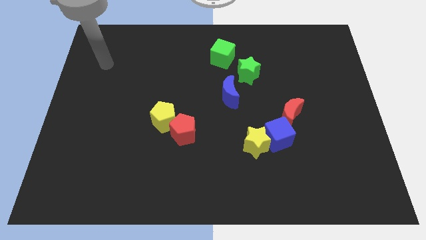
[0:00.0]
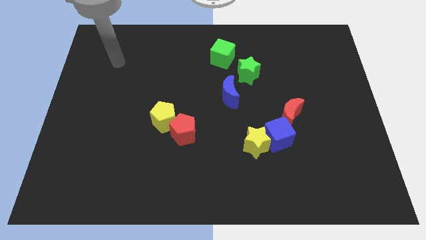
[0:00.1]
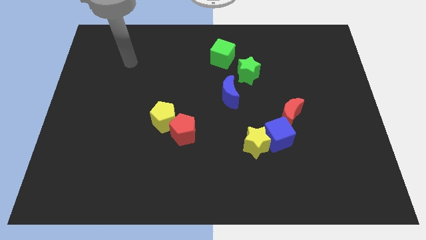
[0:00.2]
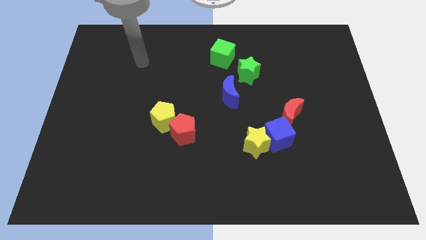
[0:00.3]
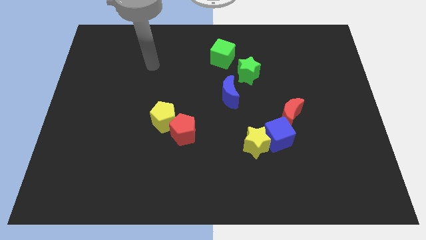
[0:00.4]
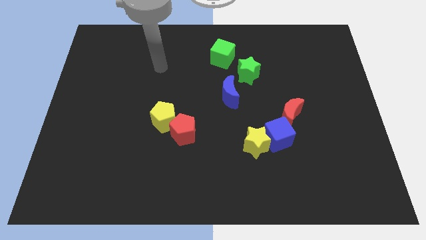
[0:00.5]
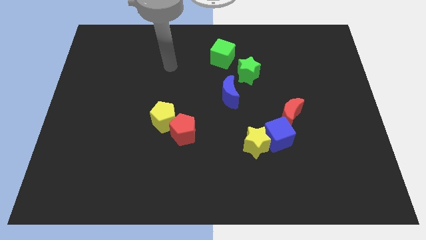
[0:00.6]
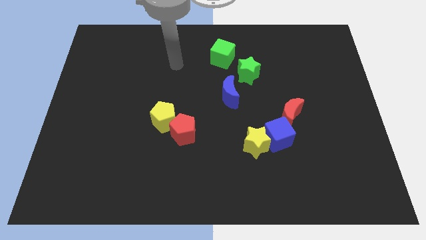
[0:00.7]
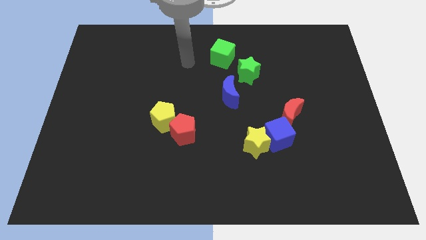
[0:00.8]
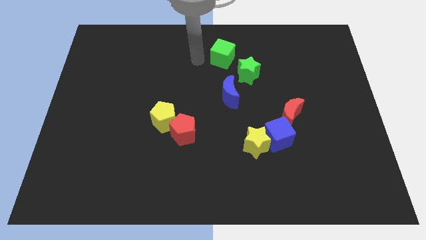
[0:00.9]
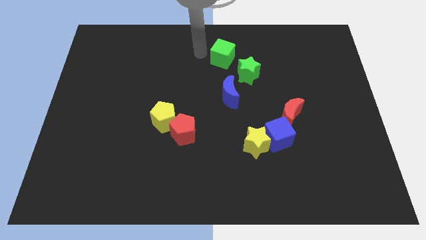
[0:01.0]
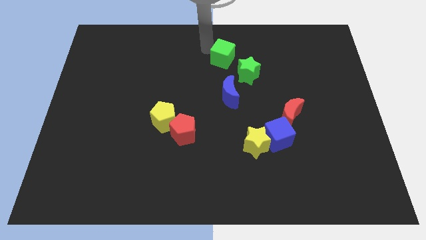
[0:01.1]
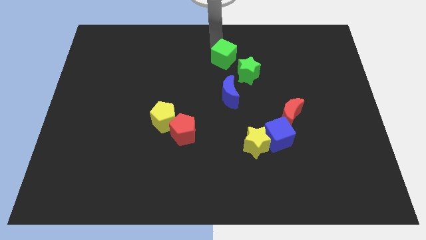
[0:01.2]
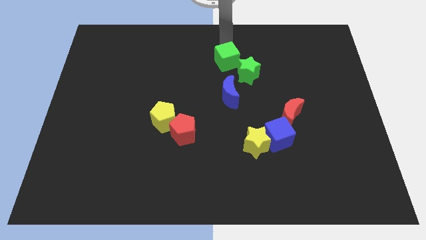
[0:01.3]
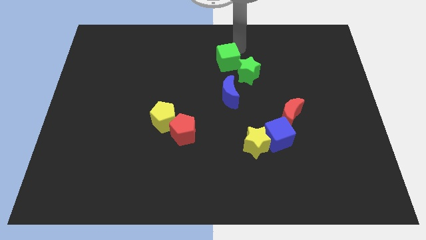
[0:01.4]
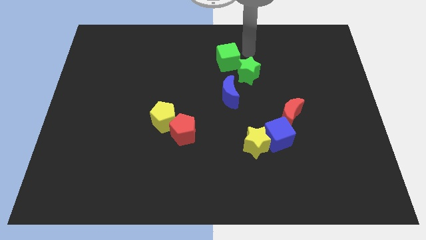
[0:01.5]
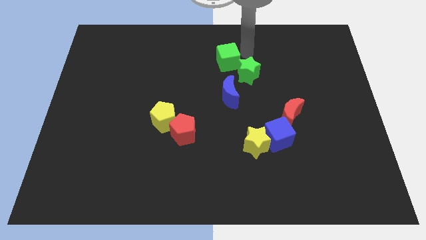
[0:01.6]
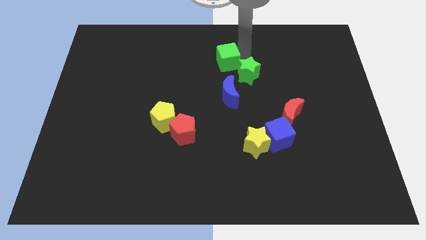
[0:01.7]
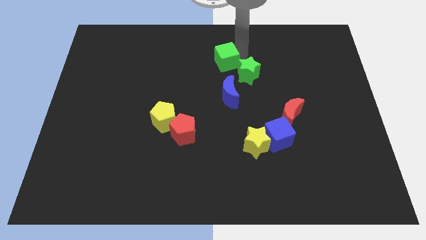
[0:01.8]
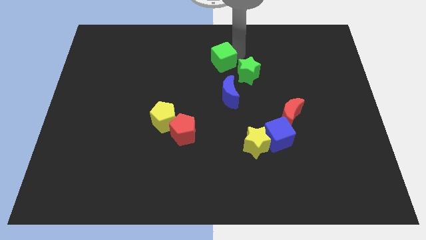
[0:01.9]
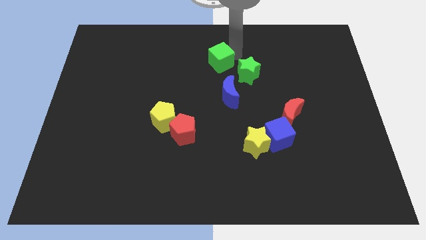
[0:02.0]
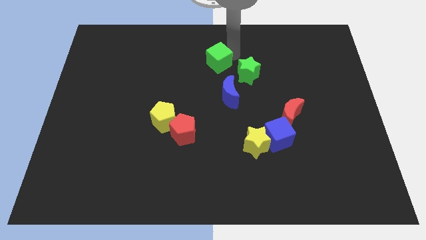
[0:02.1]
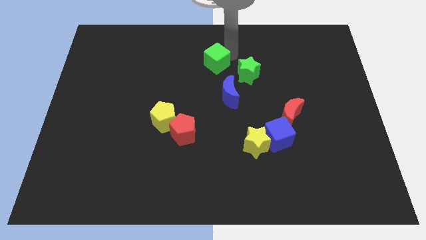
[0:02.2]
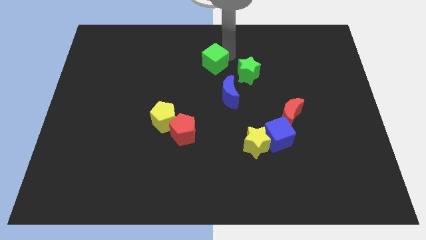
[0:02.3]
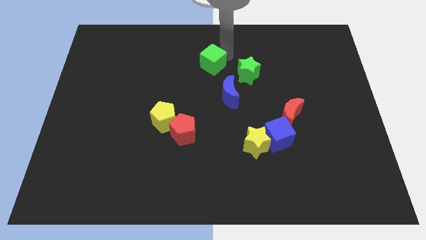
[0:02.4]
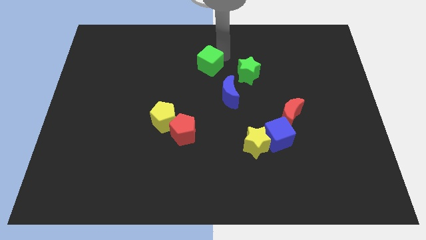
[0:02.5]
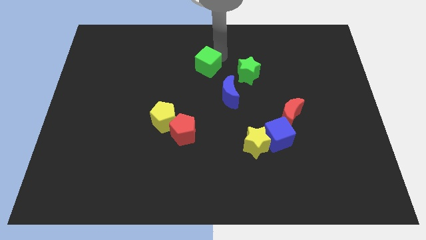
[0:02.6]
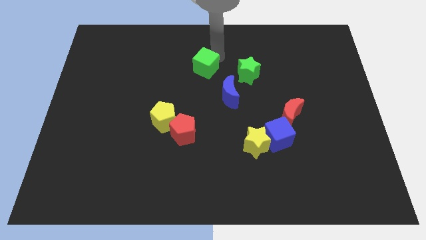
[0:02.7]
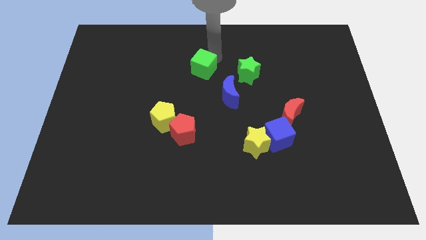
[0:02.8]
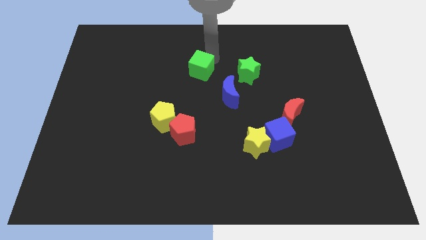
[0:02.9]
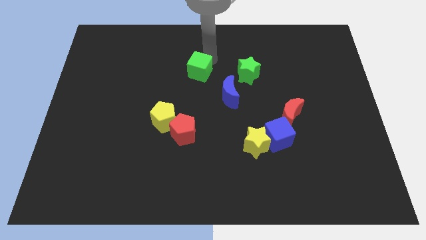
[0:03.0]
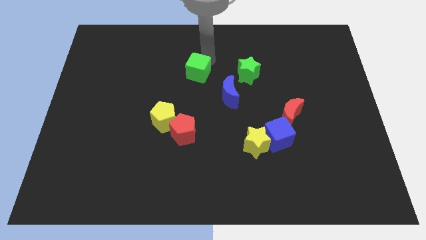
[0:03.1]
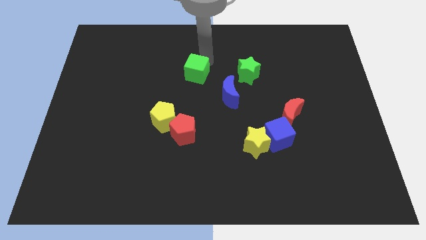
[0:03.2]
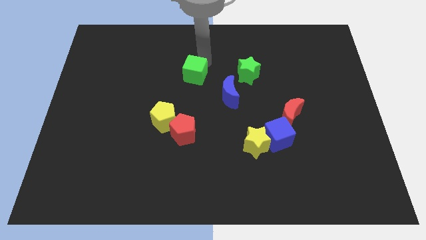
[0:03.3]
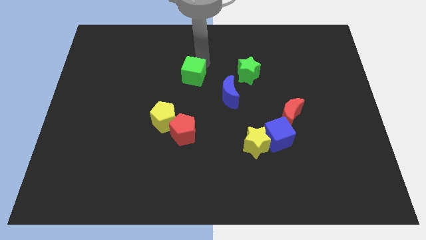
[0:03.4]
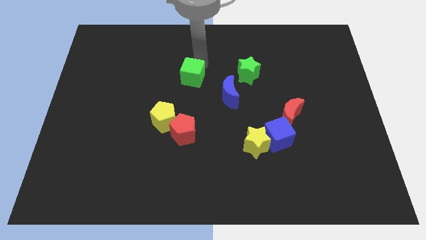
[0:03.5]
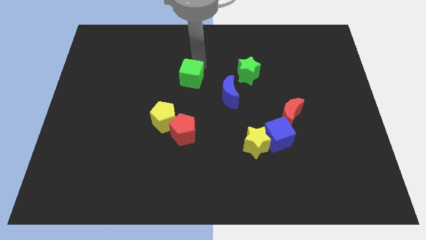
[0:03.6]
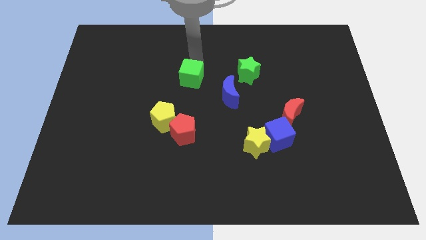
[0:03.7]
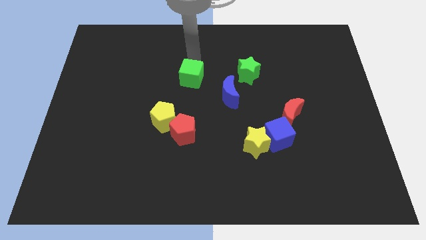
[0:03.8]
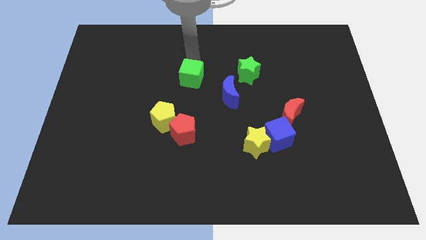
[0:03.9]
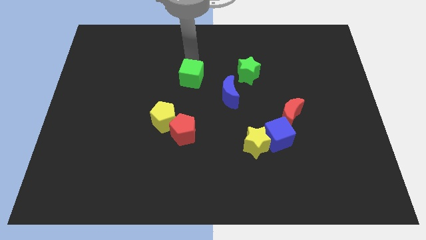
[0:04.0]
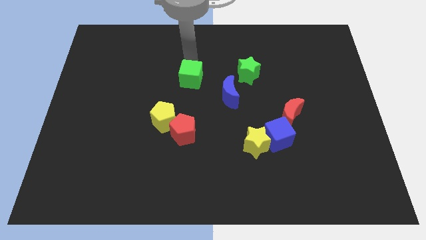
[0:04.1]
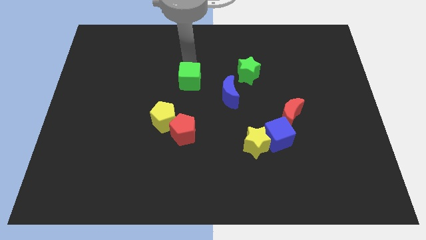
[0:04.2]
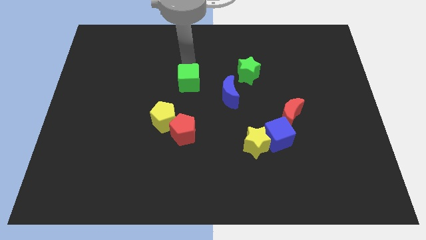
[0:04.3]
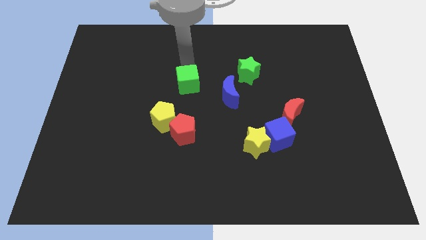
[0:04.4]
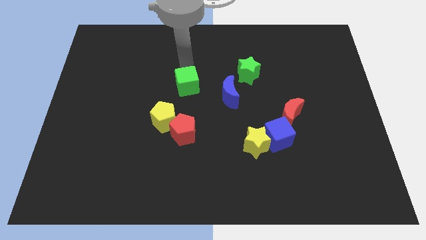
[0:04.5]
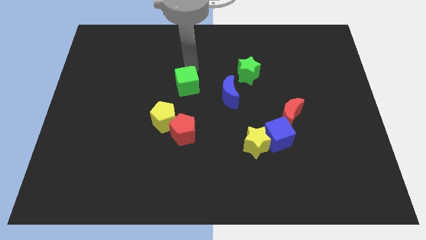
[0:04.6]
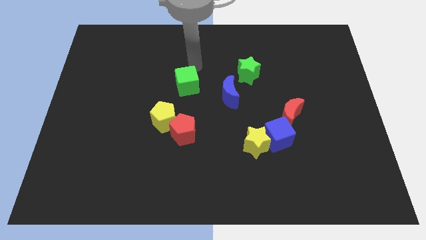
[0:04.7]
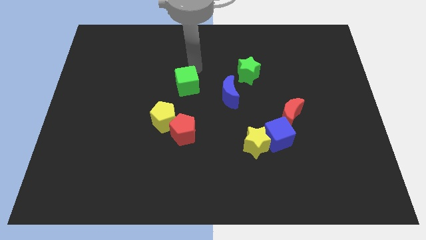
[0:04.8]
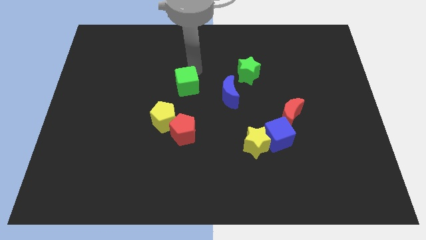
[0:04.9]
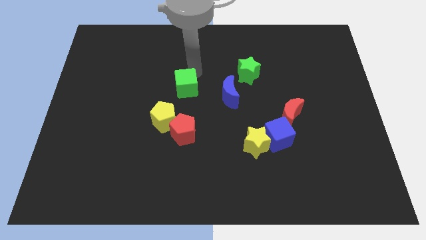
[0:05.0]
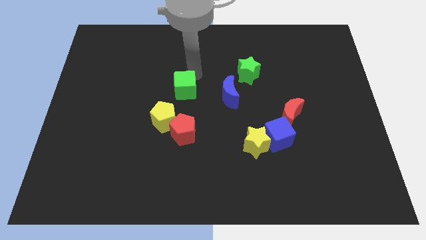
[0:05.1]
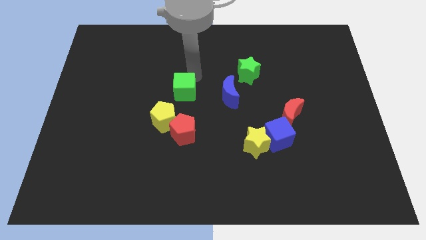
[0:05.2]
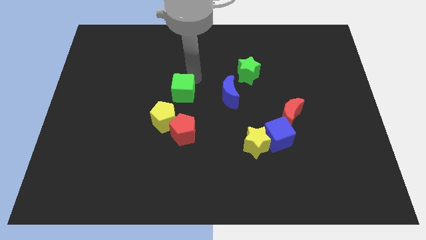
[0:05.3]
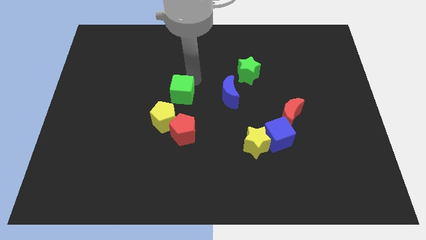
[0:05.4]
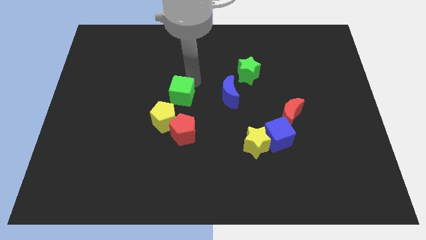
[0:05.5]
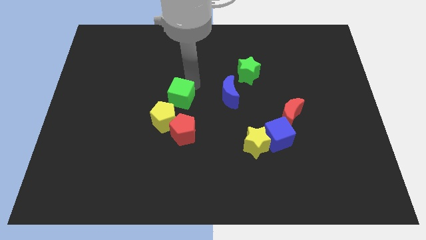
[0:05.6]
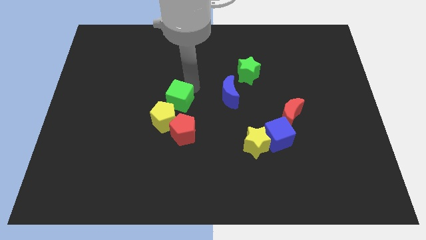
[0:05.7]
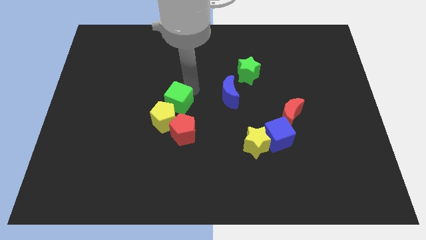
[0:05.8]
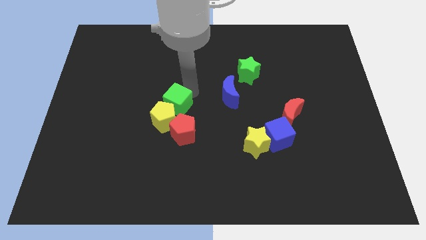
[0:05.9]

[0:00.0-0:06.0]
slide the green cube to the yellow pentagon

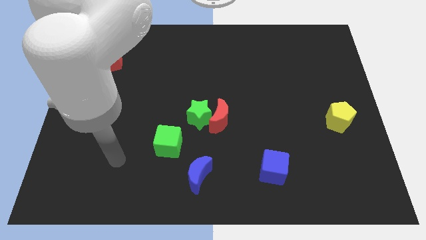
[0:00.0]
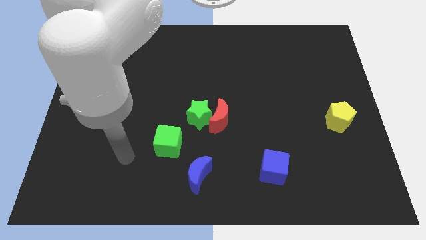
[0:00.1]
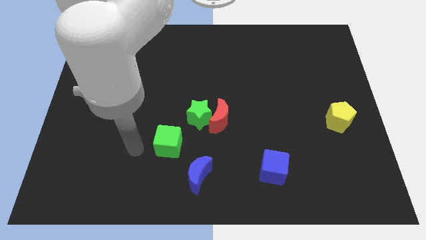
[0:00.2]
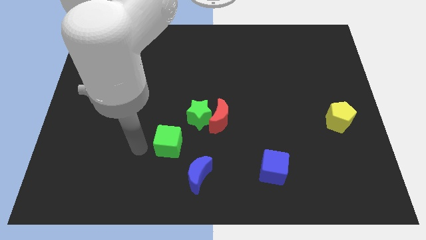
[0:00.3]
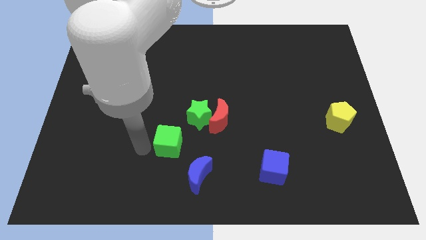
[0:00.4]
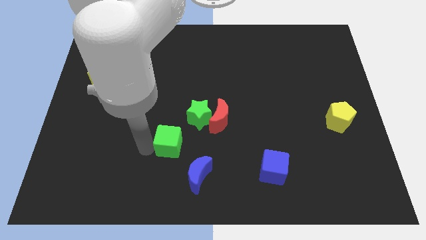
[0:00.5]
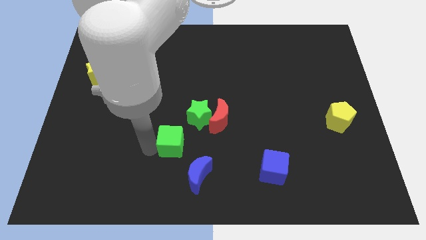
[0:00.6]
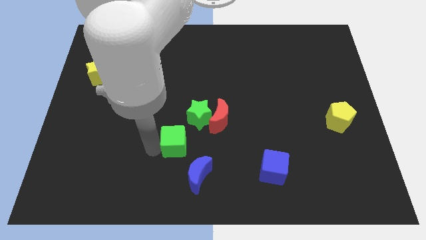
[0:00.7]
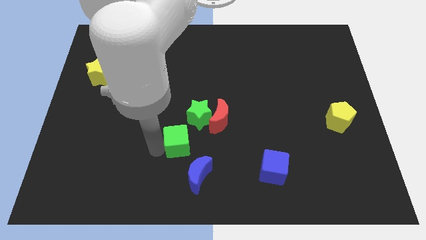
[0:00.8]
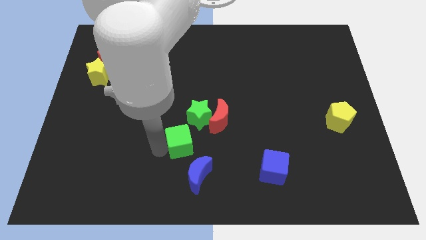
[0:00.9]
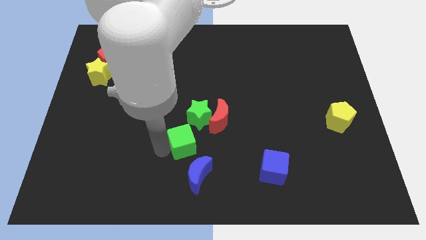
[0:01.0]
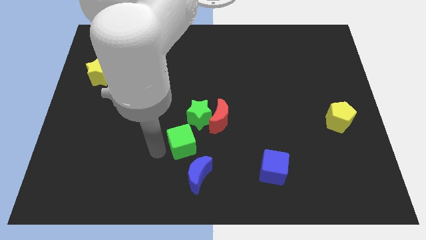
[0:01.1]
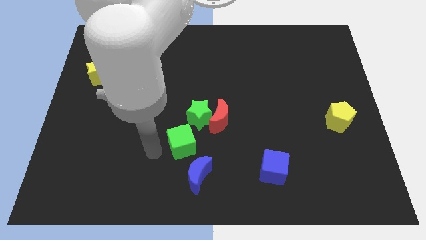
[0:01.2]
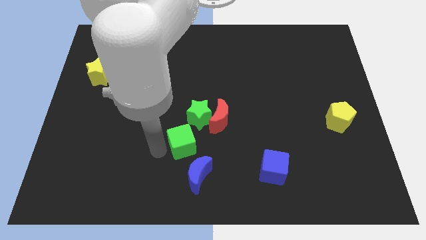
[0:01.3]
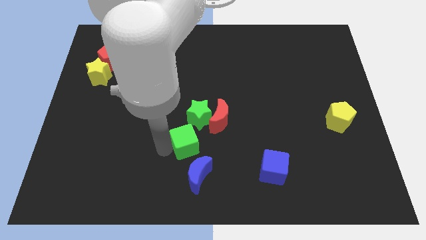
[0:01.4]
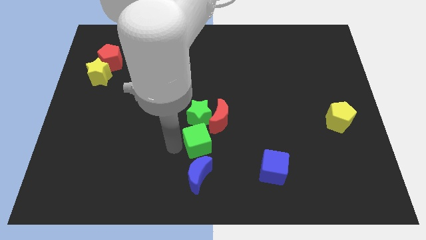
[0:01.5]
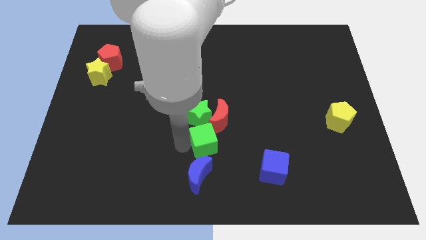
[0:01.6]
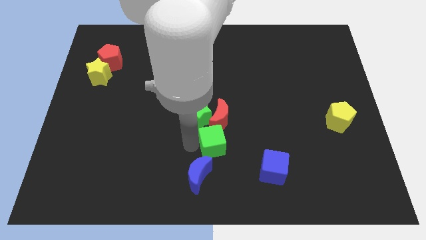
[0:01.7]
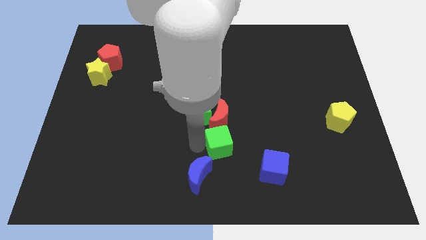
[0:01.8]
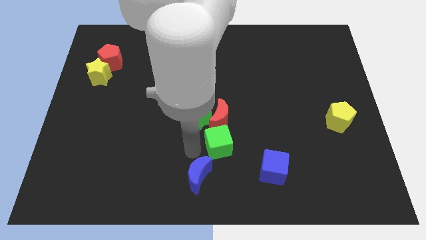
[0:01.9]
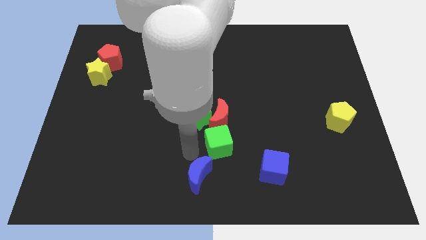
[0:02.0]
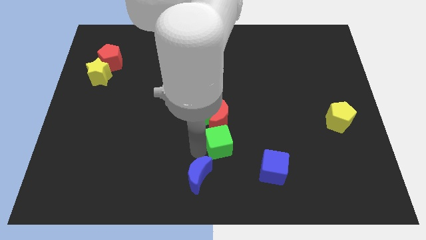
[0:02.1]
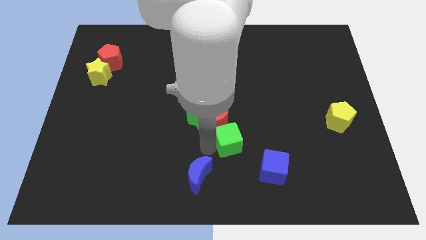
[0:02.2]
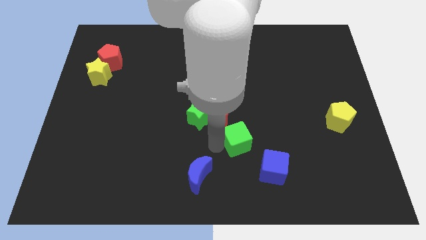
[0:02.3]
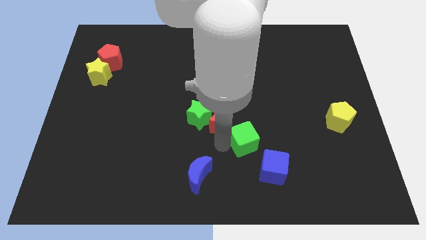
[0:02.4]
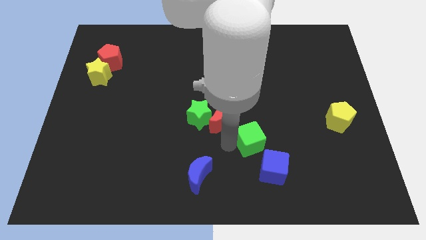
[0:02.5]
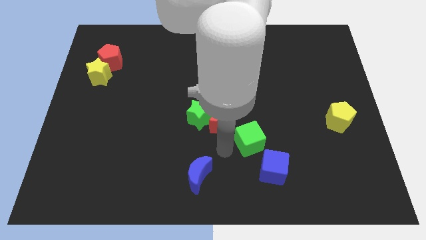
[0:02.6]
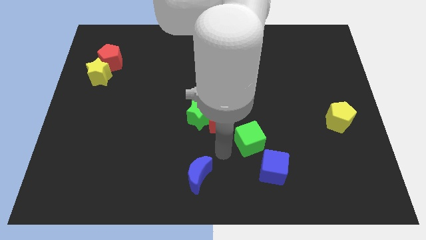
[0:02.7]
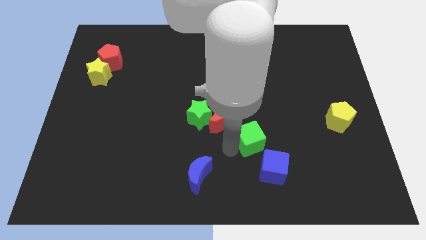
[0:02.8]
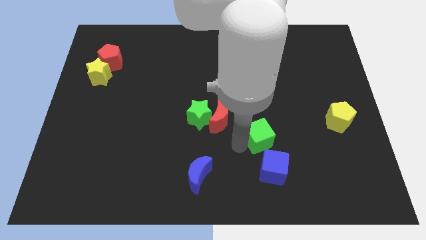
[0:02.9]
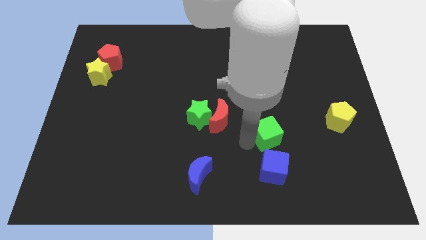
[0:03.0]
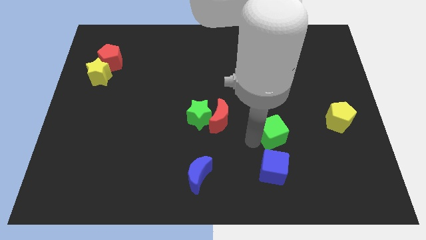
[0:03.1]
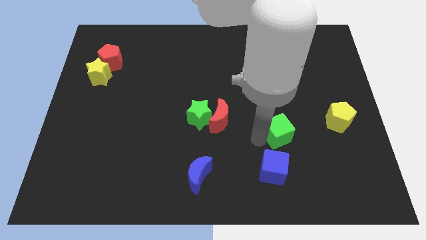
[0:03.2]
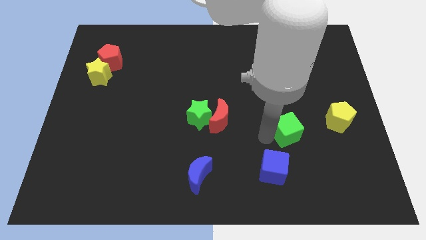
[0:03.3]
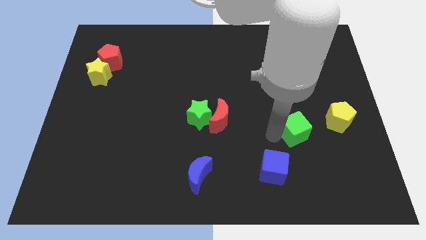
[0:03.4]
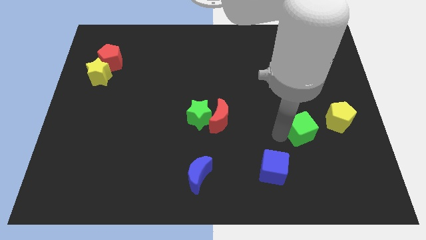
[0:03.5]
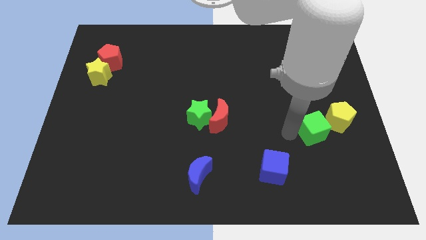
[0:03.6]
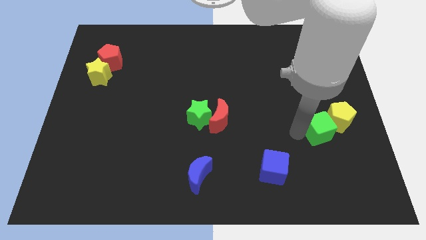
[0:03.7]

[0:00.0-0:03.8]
move the green cube next to the yellow pentagon
